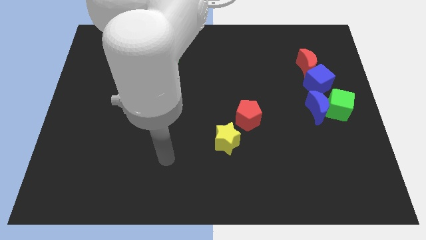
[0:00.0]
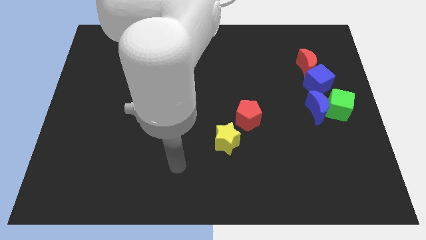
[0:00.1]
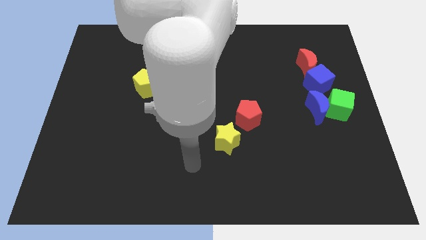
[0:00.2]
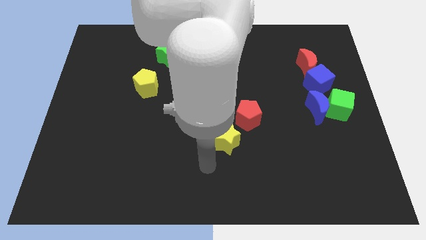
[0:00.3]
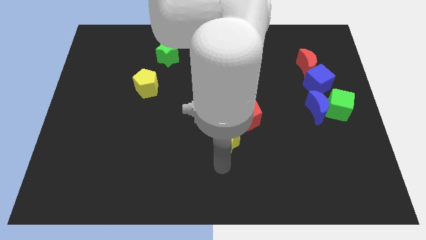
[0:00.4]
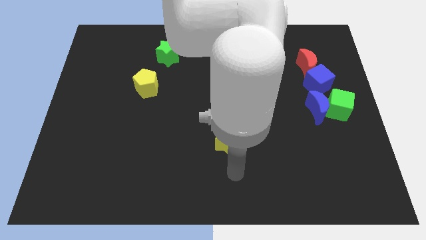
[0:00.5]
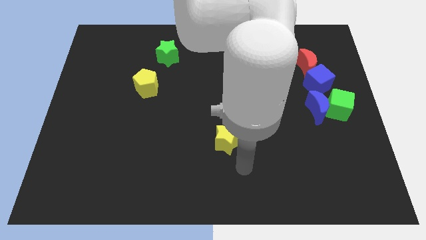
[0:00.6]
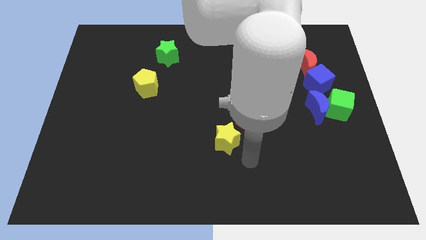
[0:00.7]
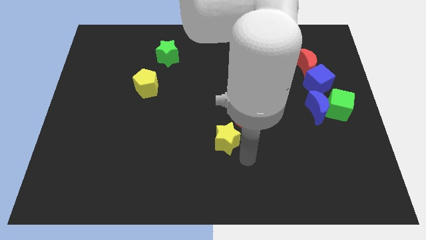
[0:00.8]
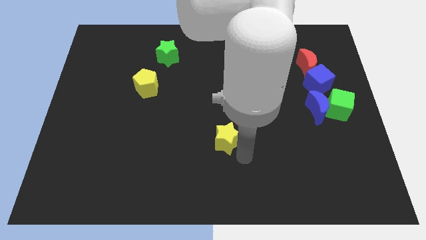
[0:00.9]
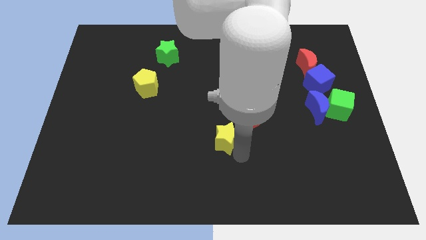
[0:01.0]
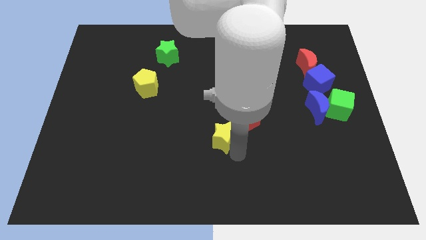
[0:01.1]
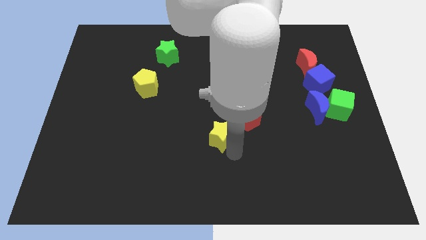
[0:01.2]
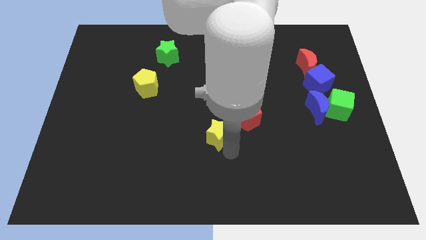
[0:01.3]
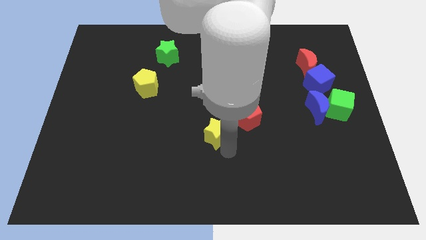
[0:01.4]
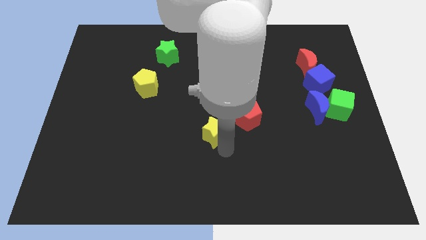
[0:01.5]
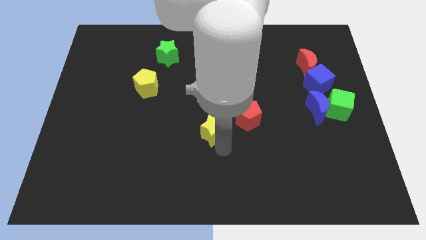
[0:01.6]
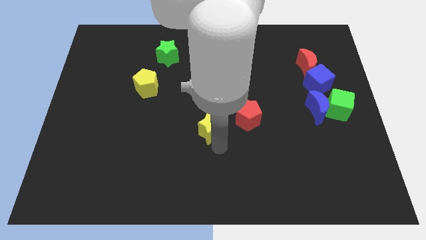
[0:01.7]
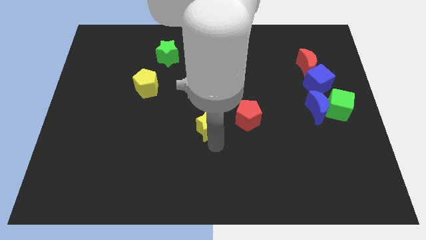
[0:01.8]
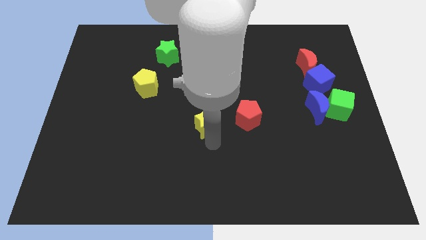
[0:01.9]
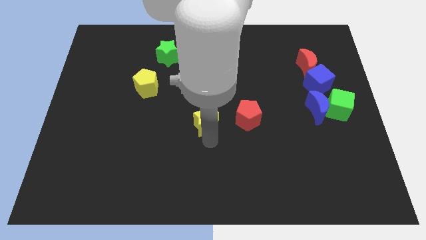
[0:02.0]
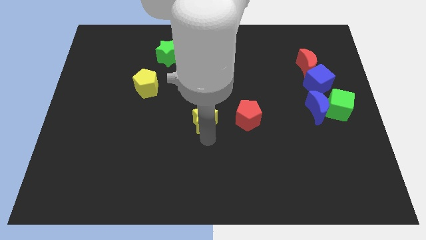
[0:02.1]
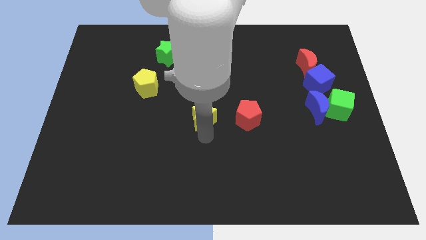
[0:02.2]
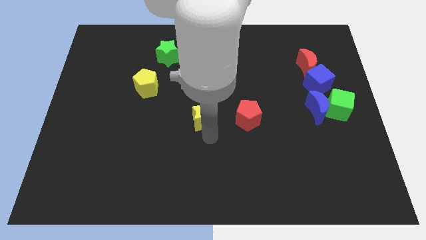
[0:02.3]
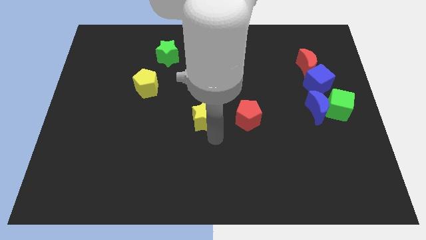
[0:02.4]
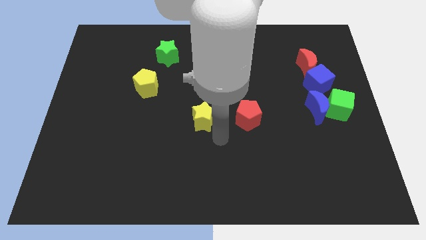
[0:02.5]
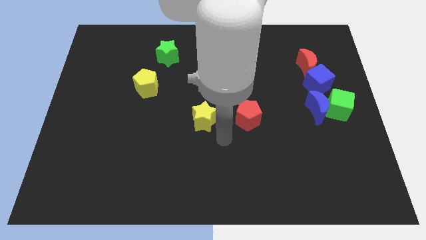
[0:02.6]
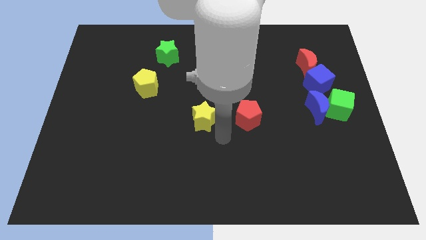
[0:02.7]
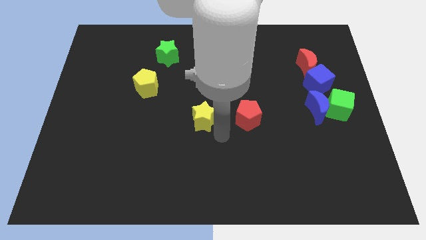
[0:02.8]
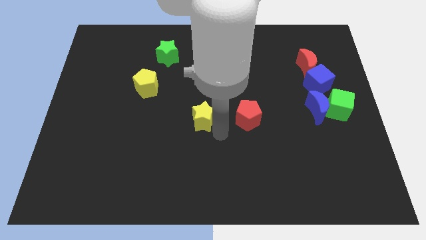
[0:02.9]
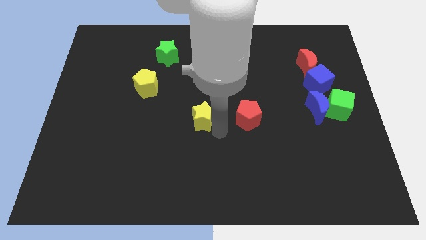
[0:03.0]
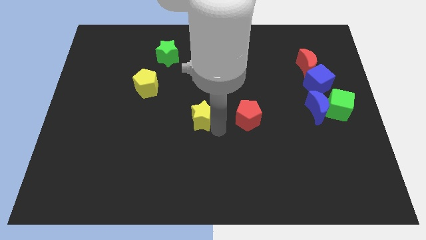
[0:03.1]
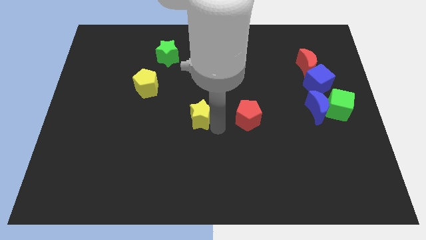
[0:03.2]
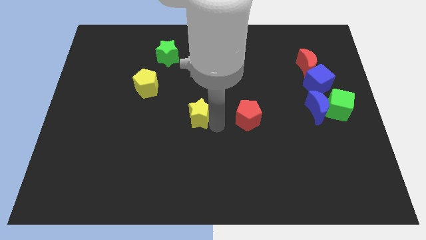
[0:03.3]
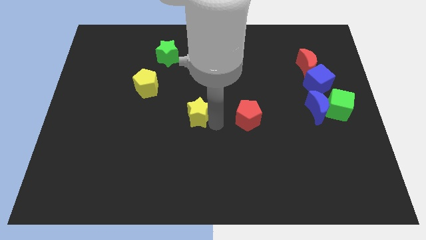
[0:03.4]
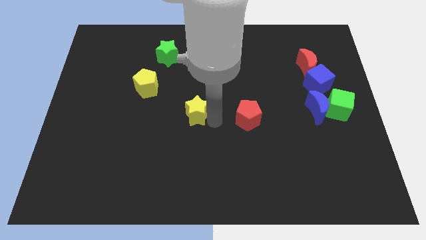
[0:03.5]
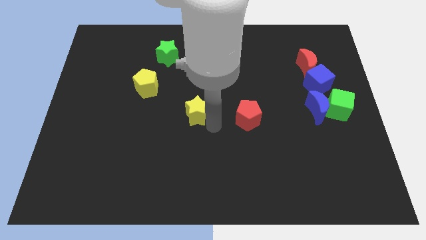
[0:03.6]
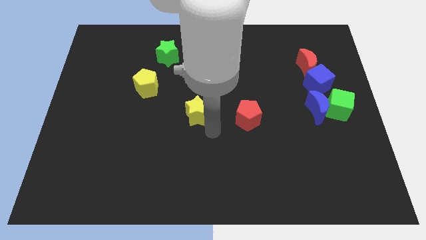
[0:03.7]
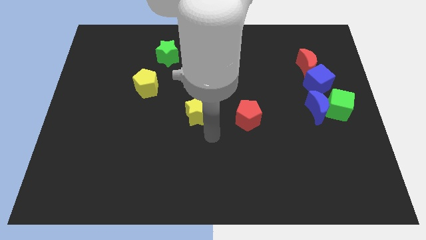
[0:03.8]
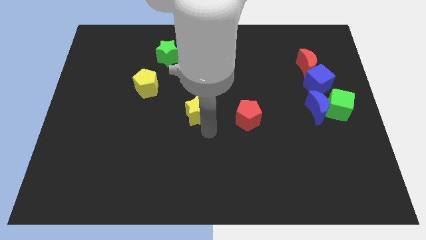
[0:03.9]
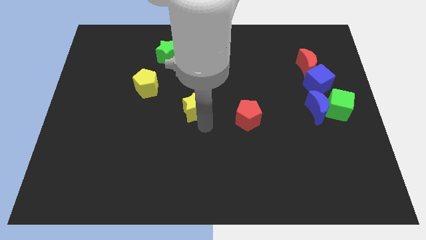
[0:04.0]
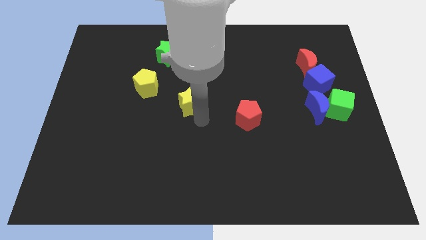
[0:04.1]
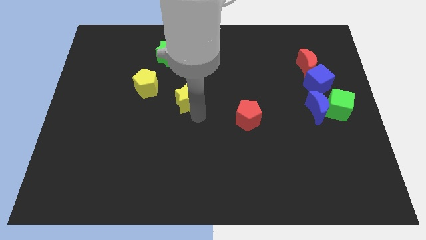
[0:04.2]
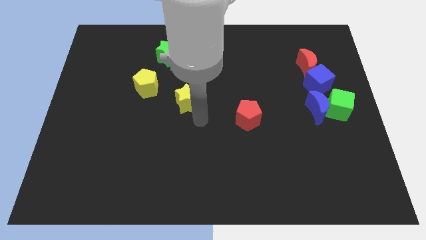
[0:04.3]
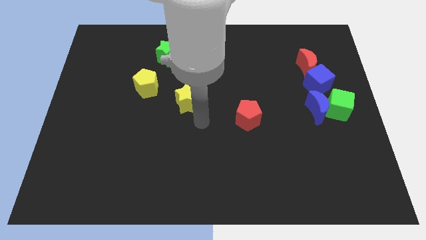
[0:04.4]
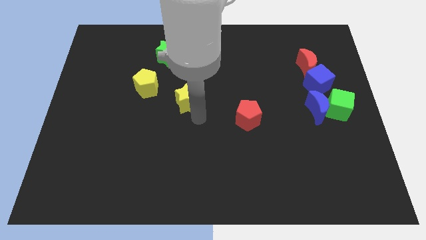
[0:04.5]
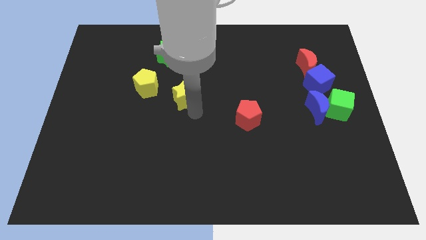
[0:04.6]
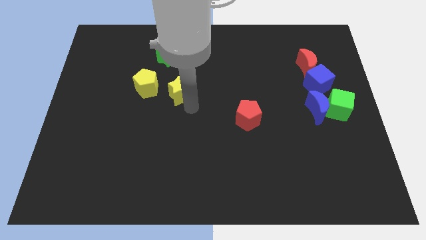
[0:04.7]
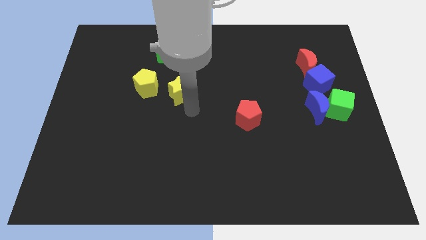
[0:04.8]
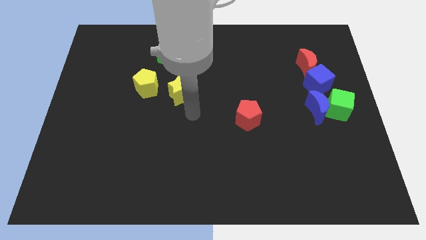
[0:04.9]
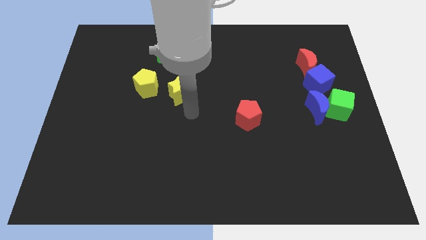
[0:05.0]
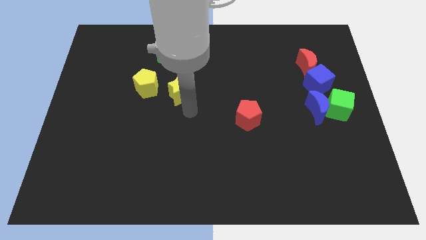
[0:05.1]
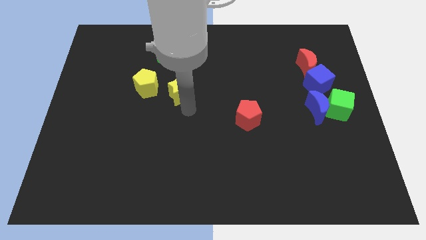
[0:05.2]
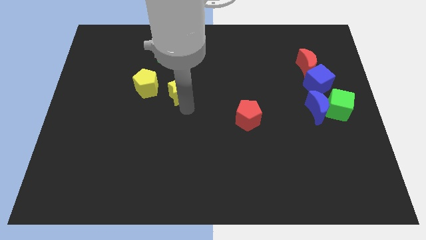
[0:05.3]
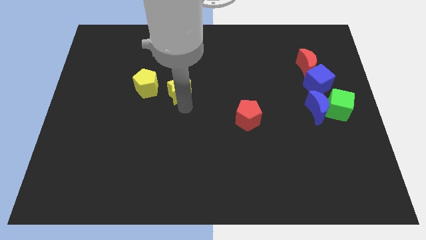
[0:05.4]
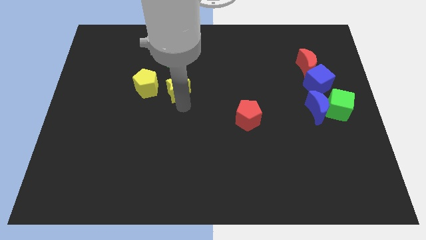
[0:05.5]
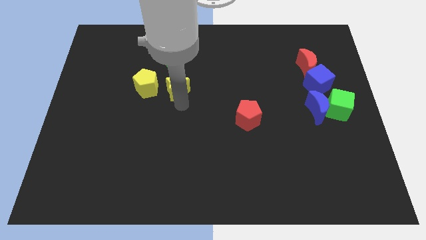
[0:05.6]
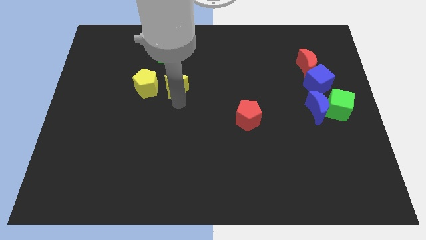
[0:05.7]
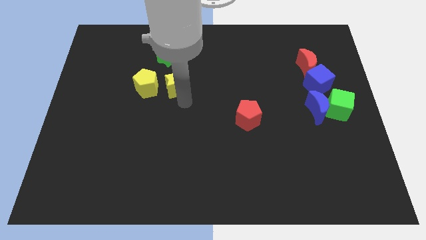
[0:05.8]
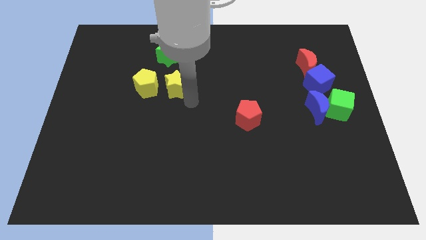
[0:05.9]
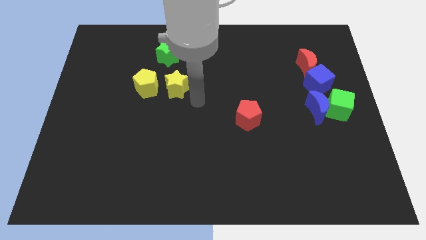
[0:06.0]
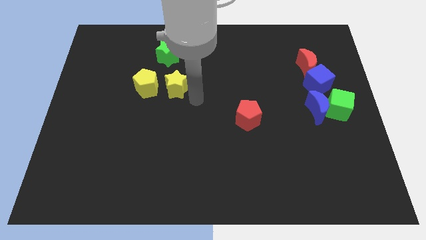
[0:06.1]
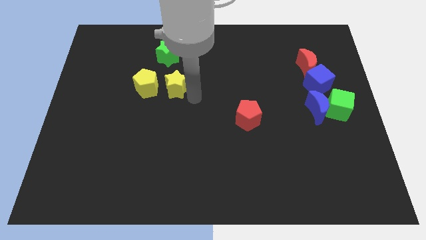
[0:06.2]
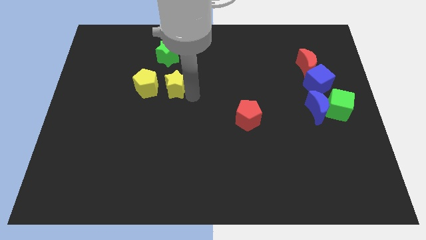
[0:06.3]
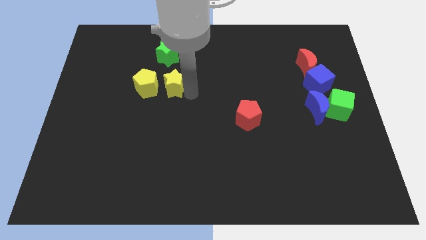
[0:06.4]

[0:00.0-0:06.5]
move the yellow star diagonally up and to the left

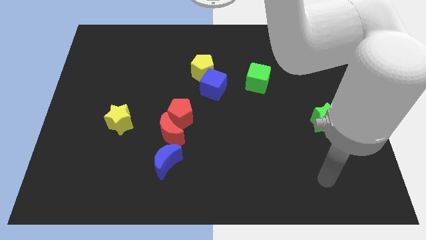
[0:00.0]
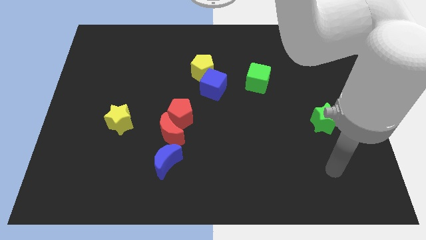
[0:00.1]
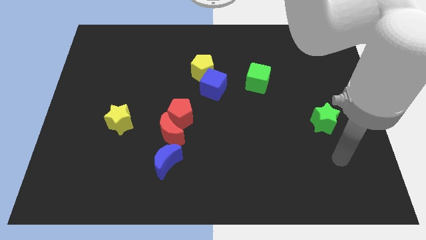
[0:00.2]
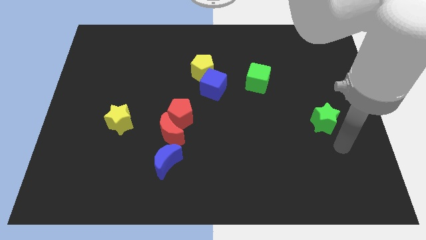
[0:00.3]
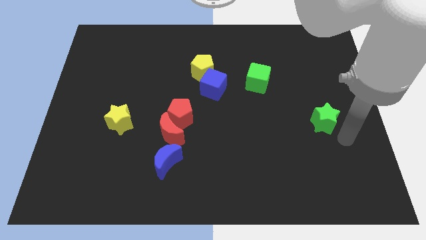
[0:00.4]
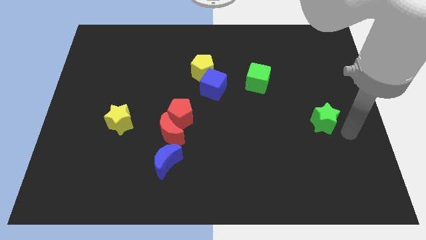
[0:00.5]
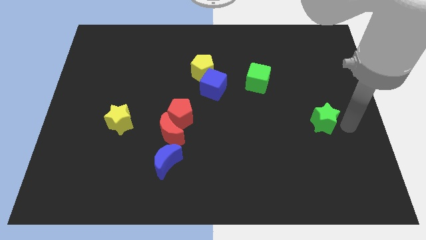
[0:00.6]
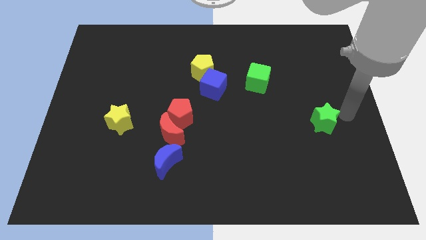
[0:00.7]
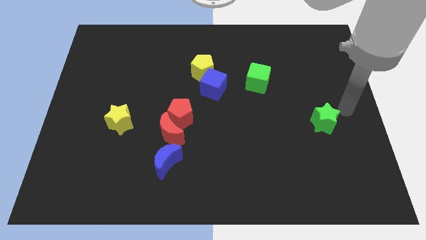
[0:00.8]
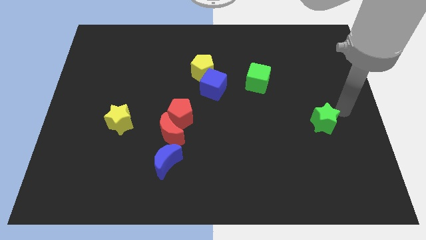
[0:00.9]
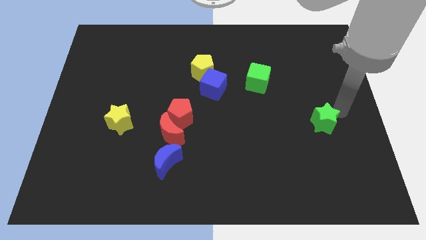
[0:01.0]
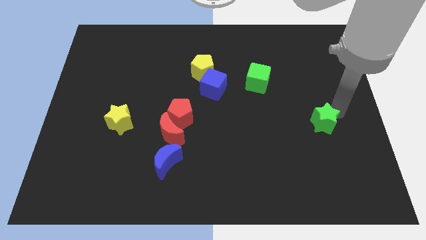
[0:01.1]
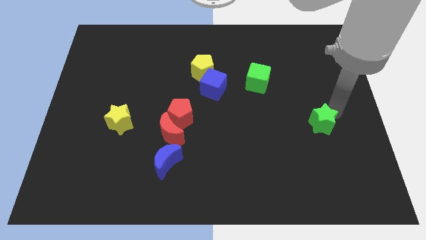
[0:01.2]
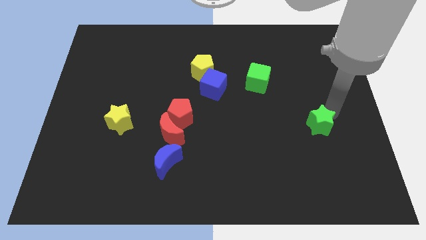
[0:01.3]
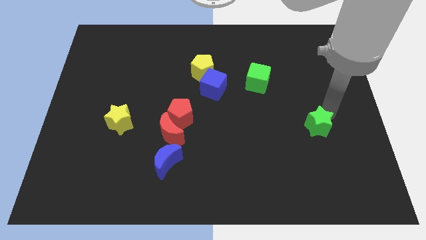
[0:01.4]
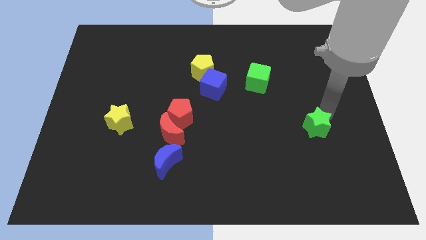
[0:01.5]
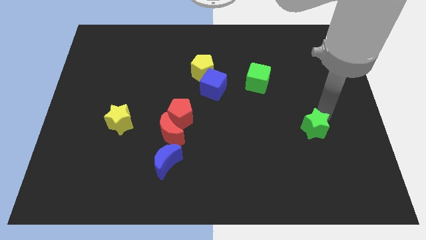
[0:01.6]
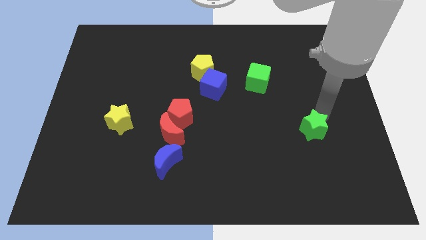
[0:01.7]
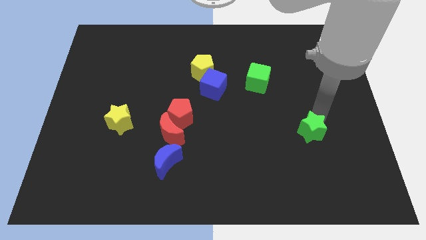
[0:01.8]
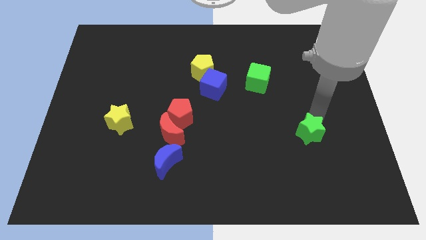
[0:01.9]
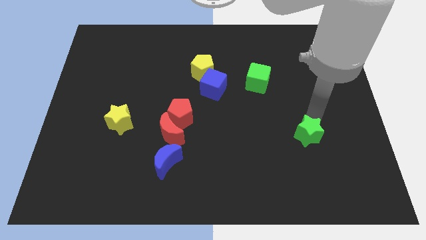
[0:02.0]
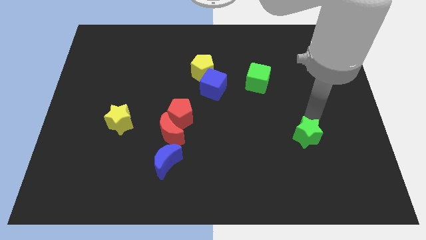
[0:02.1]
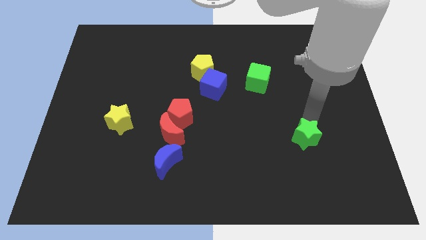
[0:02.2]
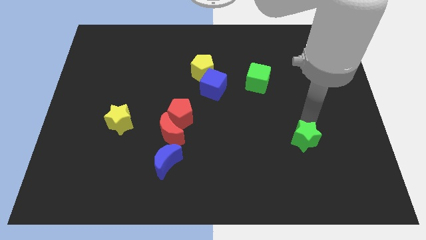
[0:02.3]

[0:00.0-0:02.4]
slightly move the green star down and then left
